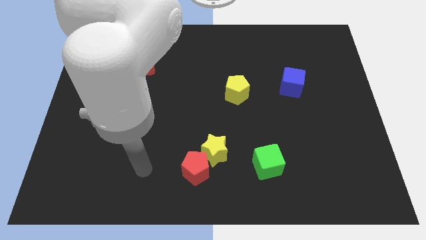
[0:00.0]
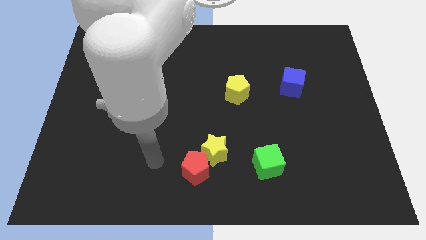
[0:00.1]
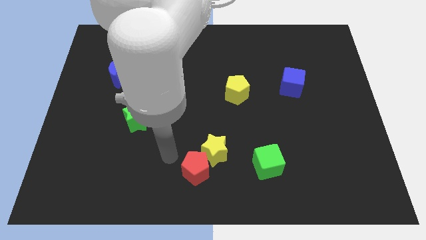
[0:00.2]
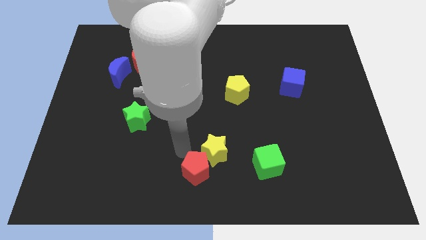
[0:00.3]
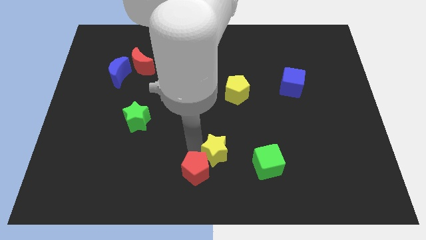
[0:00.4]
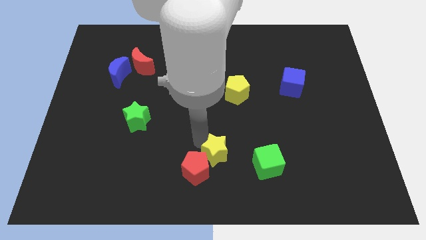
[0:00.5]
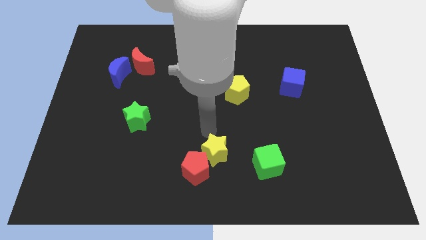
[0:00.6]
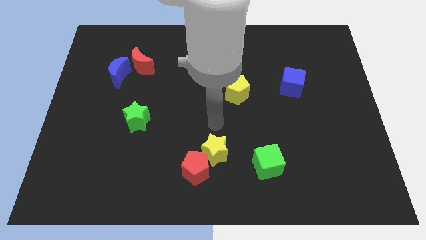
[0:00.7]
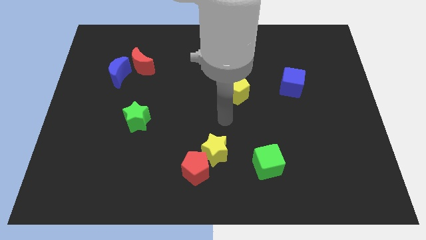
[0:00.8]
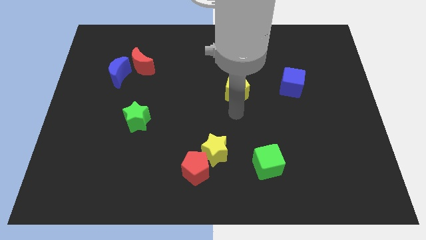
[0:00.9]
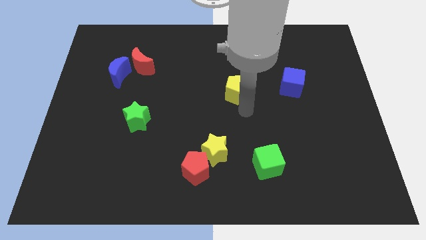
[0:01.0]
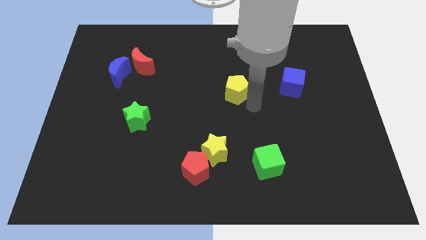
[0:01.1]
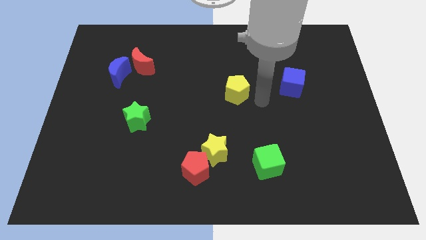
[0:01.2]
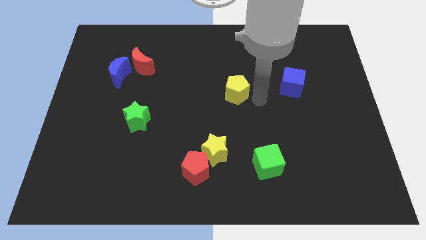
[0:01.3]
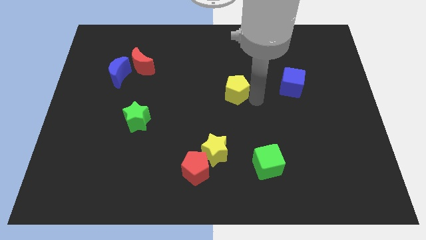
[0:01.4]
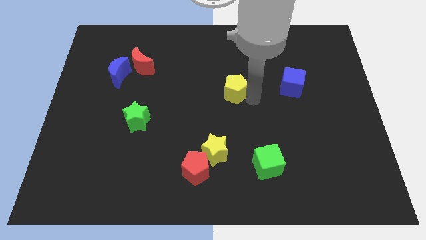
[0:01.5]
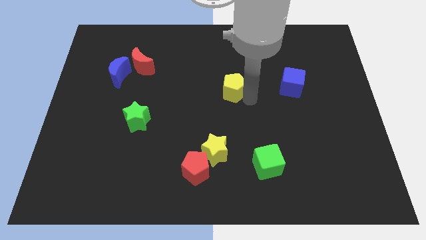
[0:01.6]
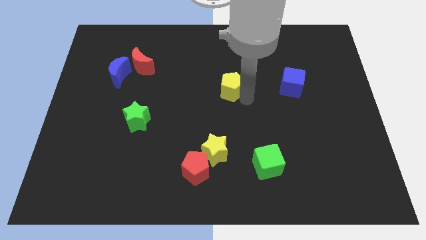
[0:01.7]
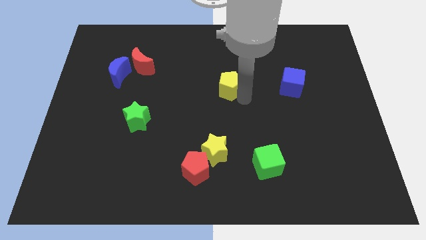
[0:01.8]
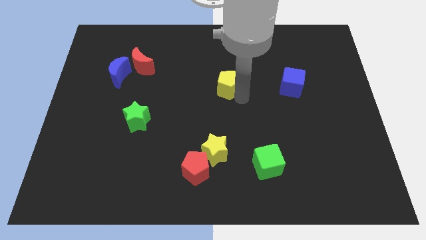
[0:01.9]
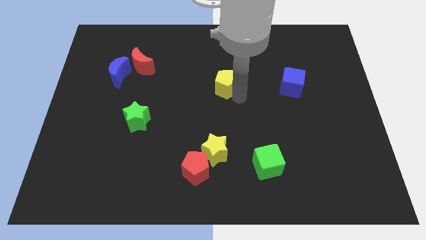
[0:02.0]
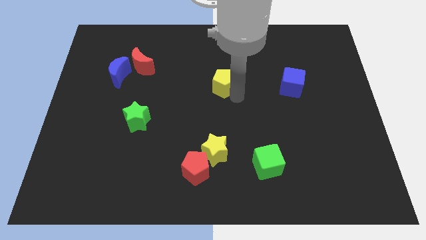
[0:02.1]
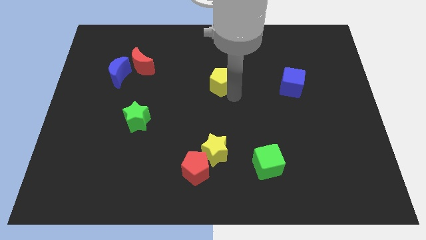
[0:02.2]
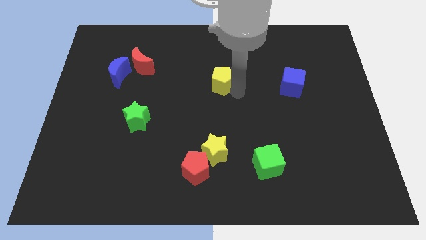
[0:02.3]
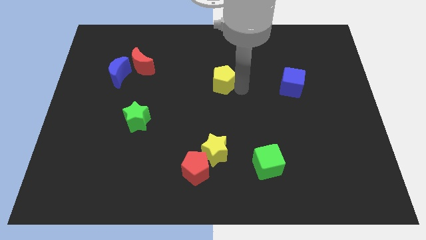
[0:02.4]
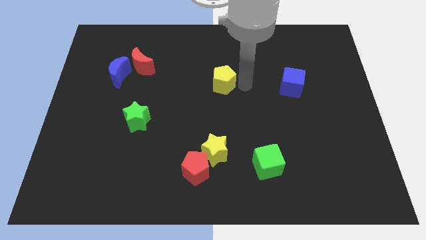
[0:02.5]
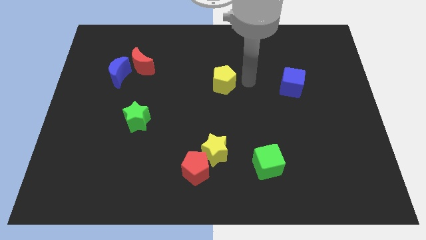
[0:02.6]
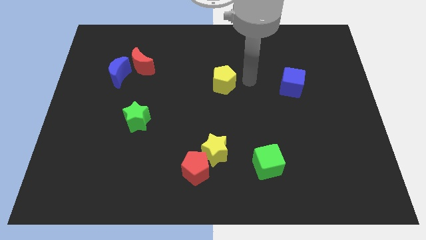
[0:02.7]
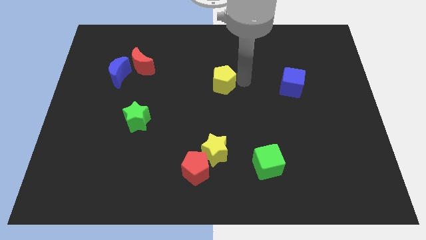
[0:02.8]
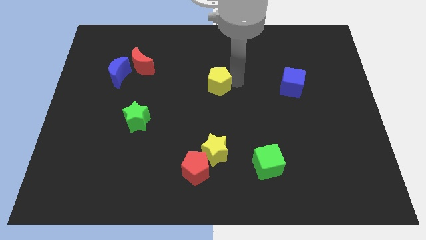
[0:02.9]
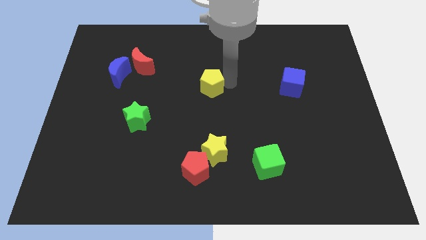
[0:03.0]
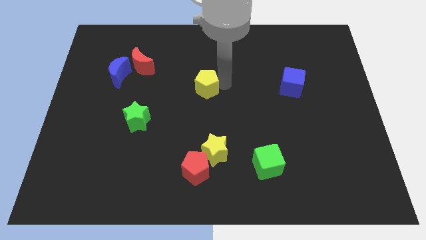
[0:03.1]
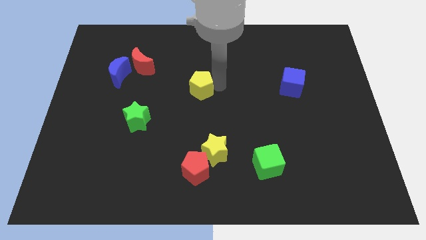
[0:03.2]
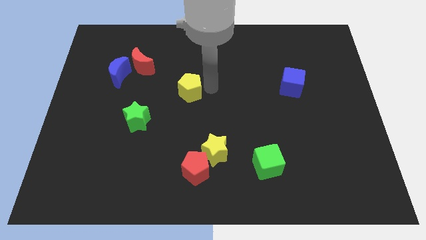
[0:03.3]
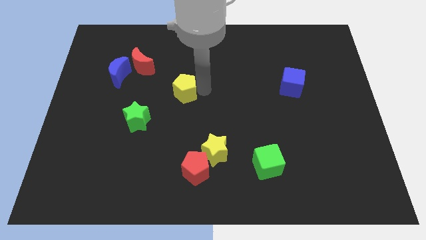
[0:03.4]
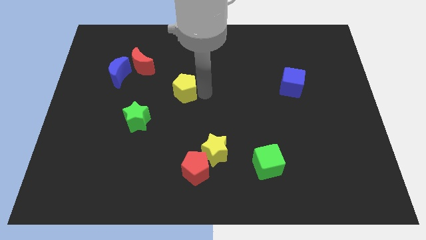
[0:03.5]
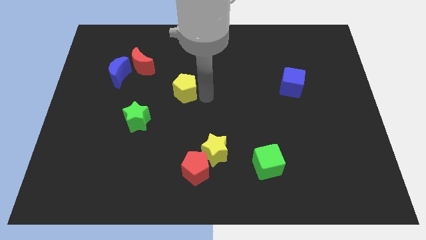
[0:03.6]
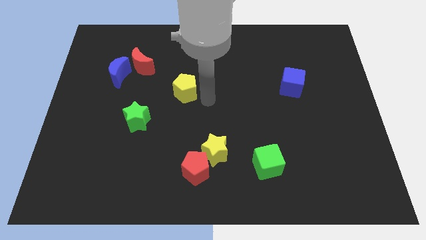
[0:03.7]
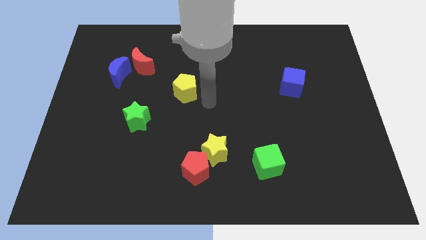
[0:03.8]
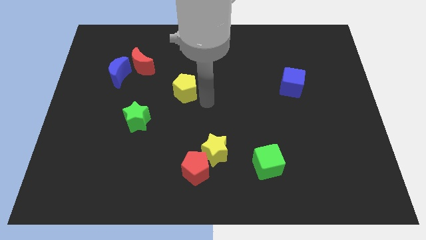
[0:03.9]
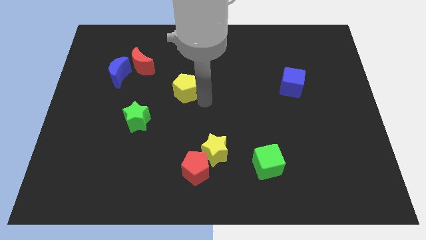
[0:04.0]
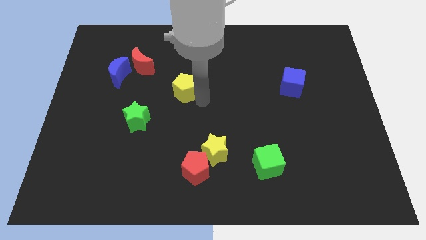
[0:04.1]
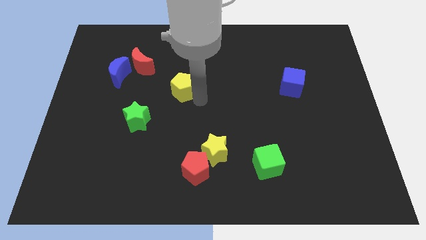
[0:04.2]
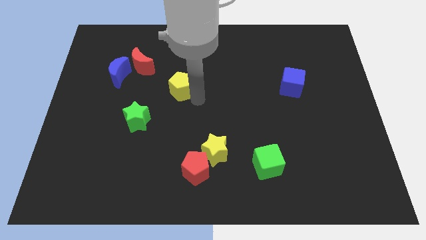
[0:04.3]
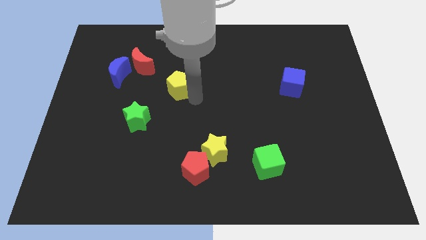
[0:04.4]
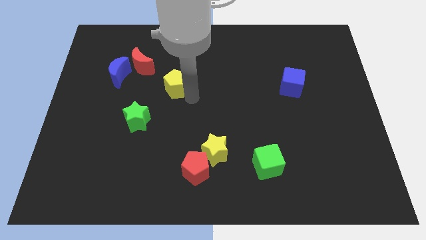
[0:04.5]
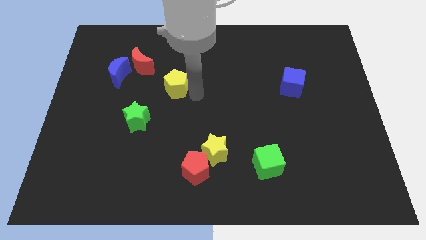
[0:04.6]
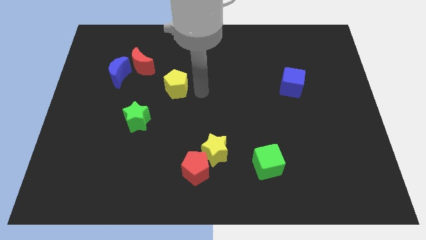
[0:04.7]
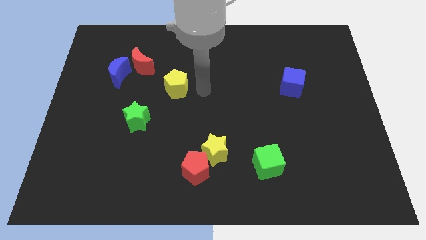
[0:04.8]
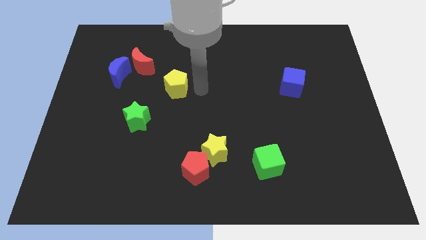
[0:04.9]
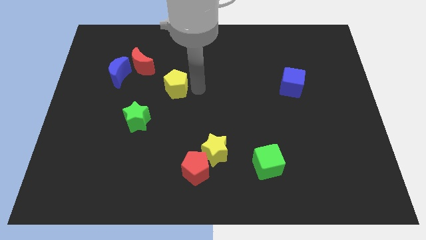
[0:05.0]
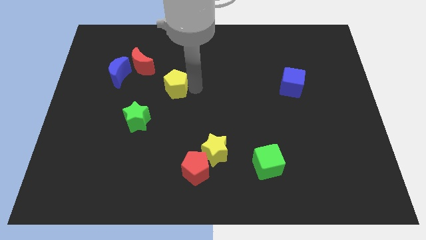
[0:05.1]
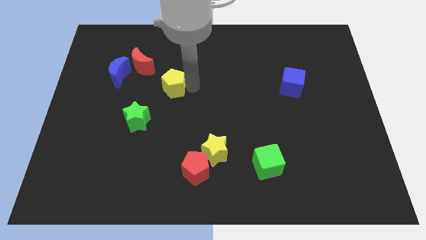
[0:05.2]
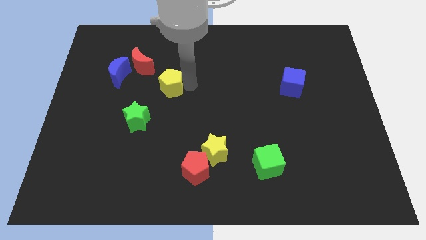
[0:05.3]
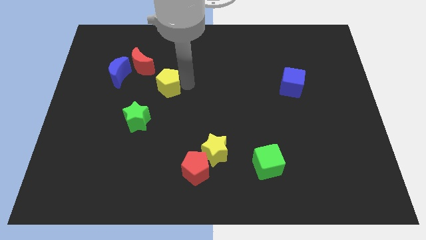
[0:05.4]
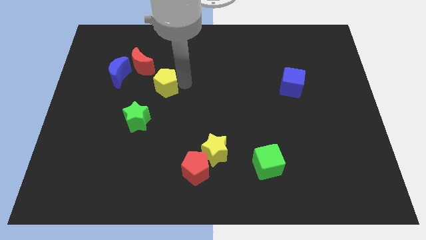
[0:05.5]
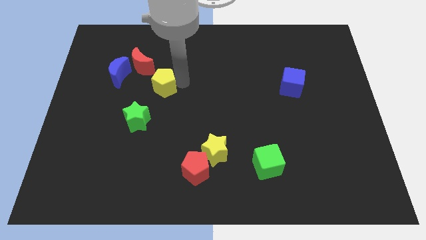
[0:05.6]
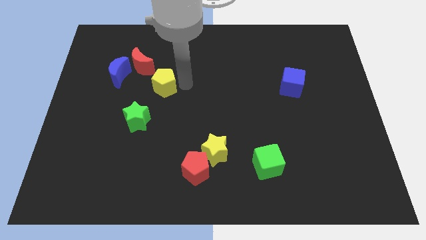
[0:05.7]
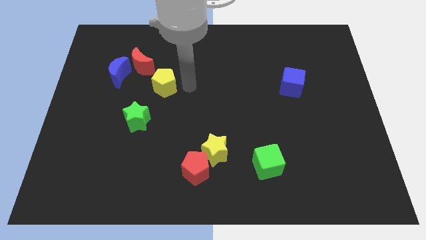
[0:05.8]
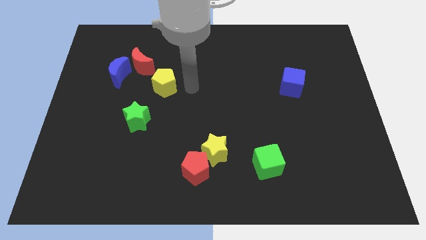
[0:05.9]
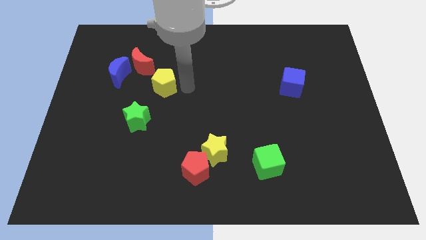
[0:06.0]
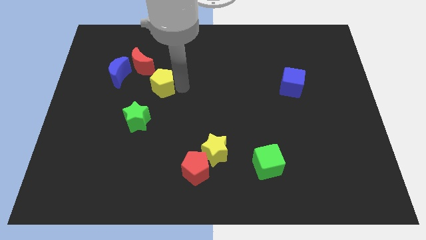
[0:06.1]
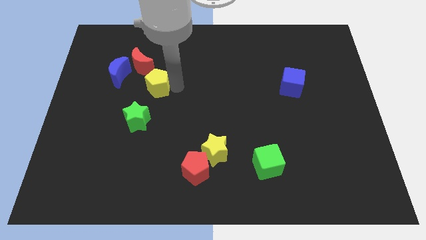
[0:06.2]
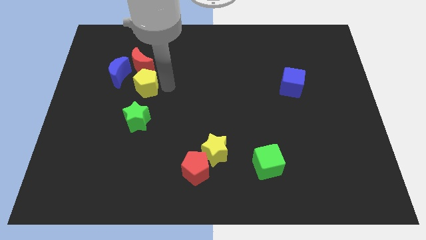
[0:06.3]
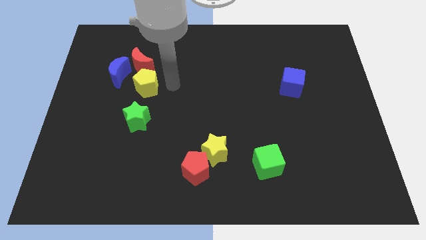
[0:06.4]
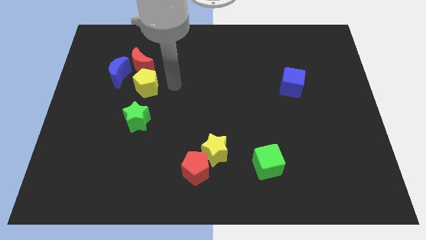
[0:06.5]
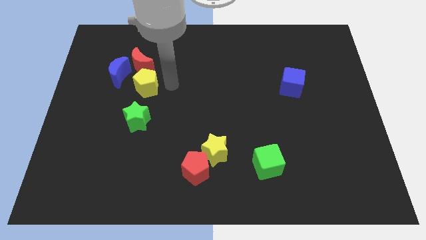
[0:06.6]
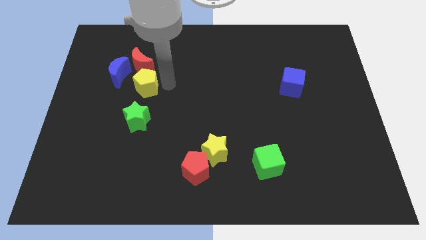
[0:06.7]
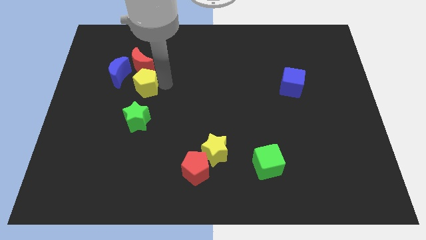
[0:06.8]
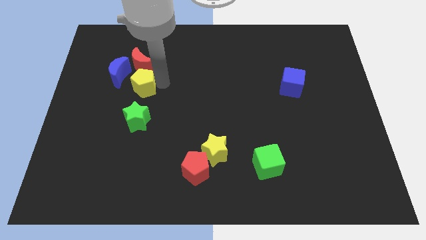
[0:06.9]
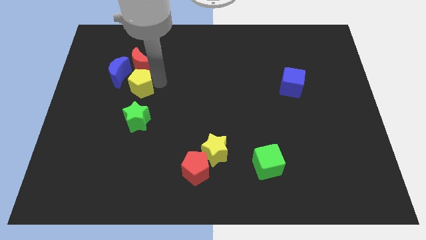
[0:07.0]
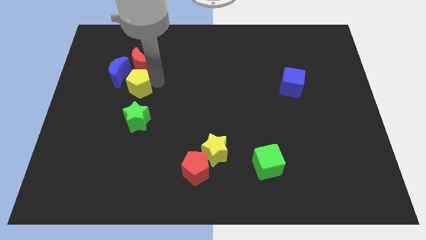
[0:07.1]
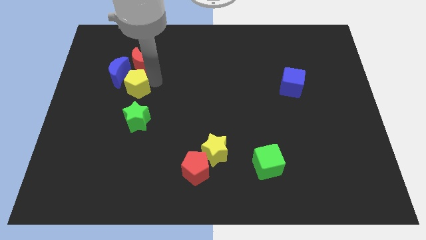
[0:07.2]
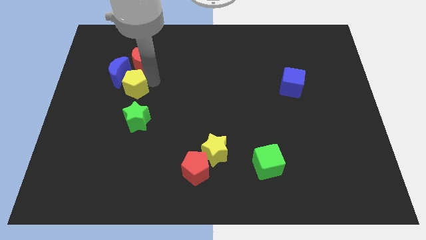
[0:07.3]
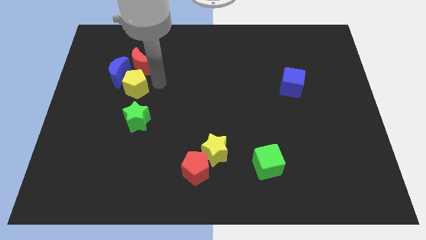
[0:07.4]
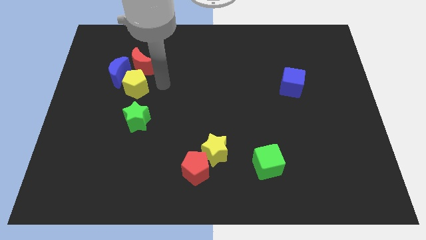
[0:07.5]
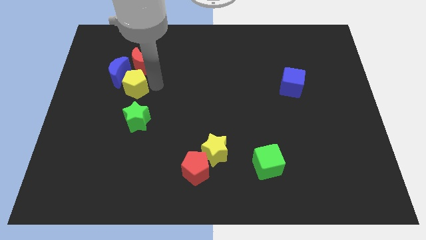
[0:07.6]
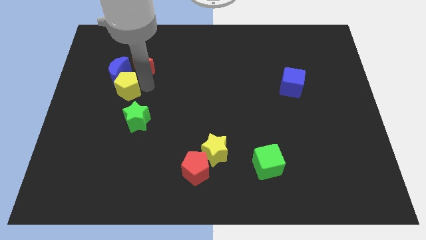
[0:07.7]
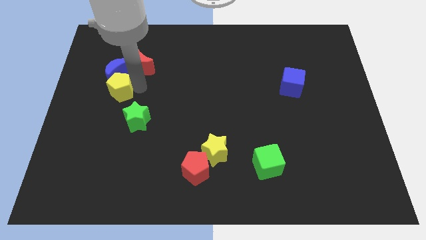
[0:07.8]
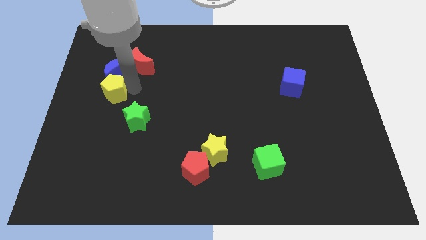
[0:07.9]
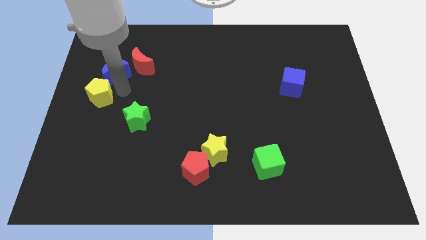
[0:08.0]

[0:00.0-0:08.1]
put the yellow pentagon to the center left
